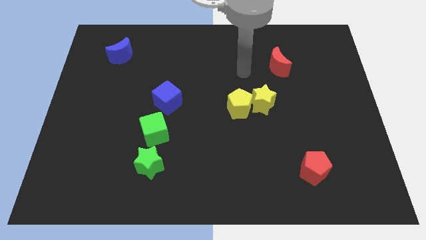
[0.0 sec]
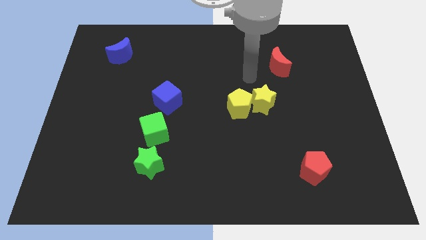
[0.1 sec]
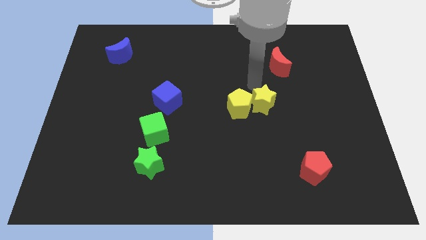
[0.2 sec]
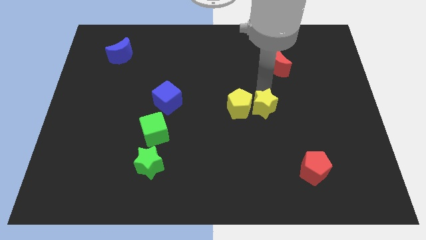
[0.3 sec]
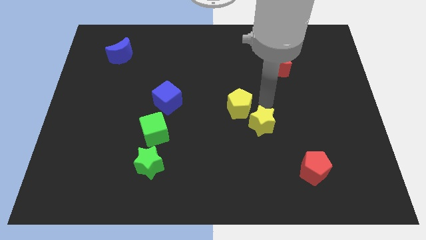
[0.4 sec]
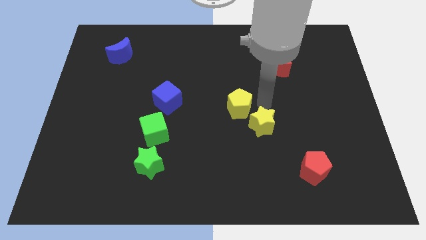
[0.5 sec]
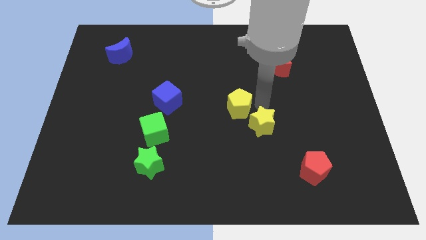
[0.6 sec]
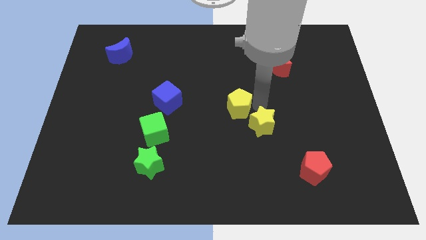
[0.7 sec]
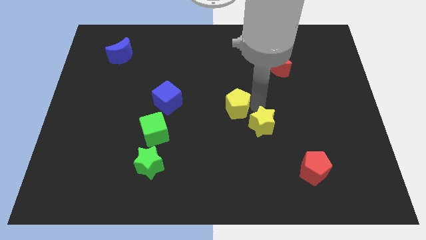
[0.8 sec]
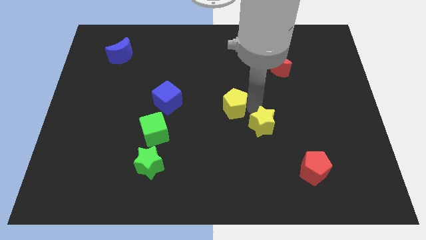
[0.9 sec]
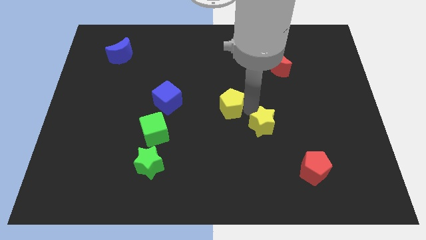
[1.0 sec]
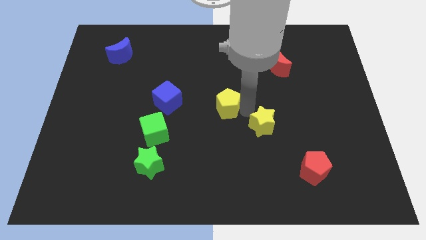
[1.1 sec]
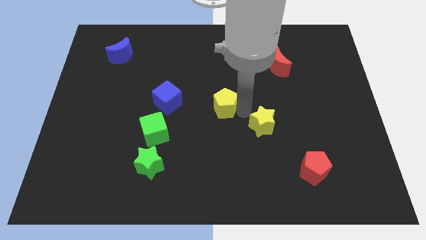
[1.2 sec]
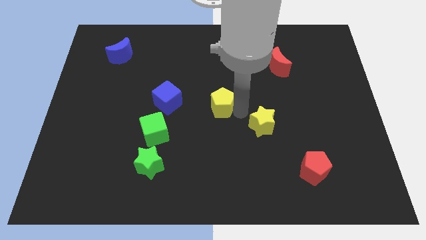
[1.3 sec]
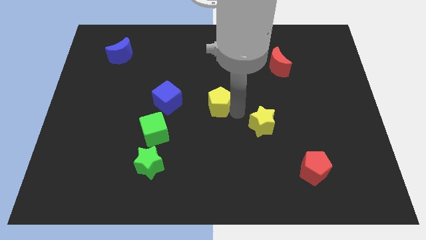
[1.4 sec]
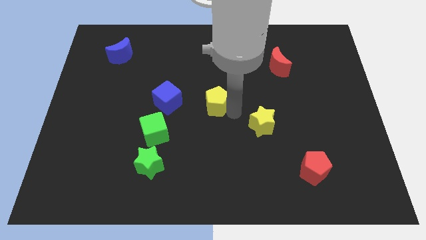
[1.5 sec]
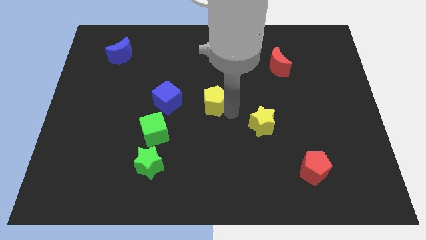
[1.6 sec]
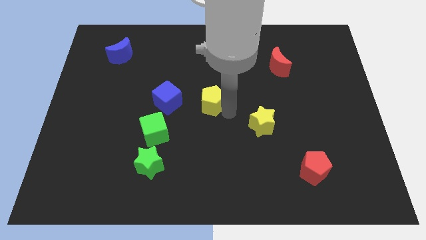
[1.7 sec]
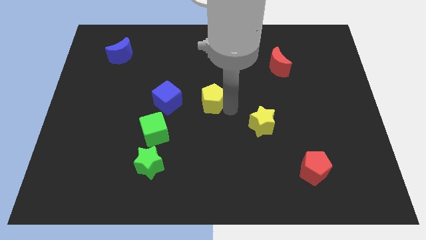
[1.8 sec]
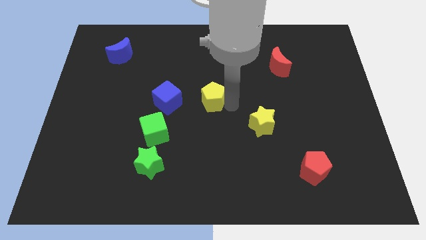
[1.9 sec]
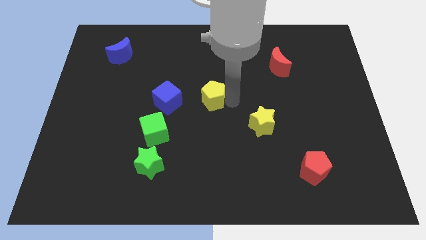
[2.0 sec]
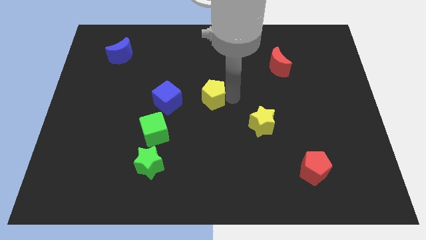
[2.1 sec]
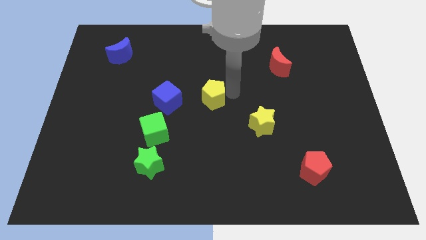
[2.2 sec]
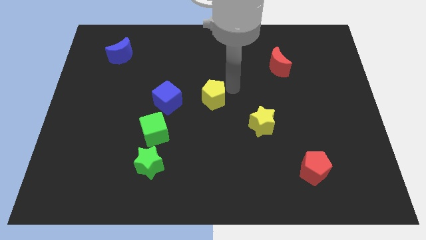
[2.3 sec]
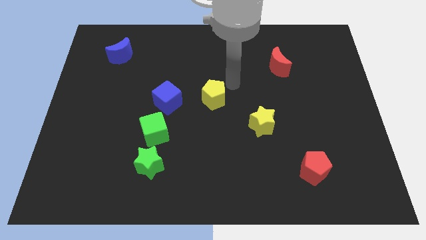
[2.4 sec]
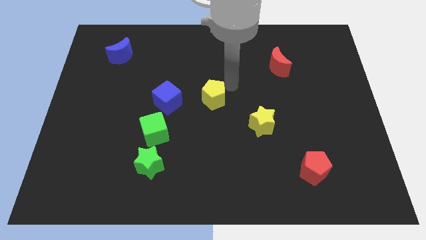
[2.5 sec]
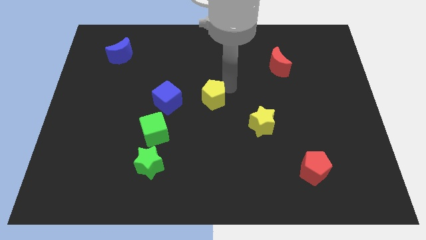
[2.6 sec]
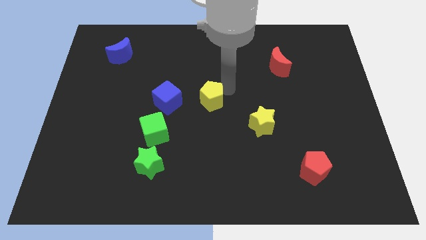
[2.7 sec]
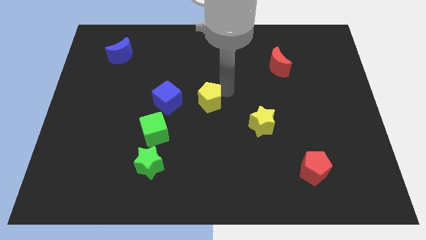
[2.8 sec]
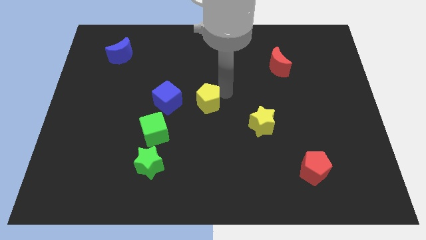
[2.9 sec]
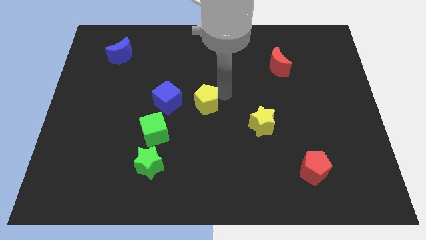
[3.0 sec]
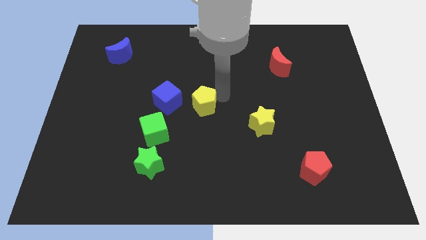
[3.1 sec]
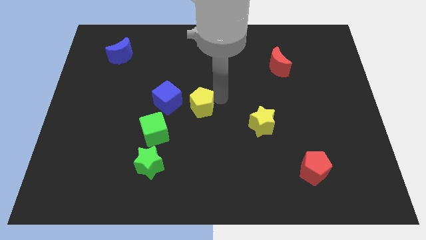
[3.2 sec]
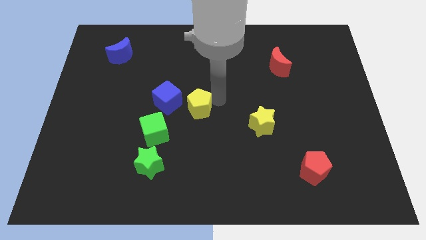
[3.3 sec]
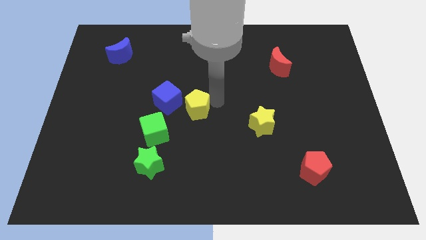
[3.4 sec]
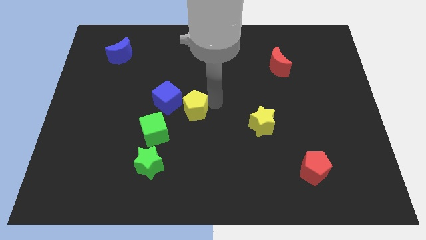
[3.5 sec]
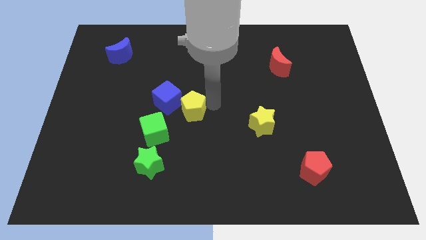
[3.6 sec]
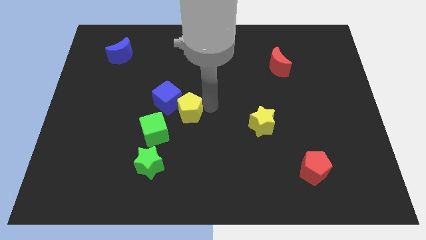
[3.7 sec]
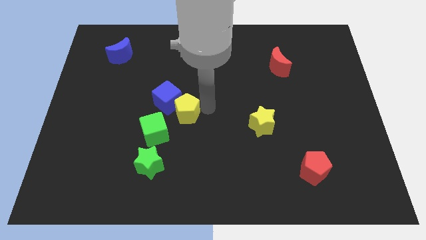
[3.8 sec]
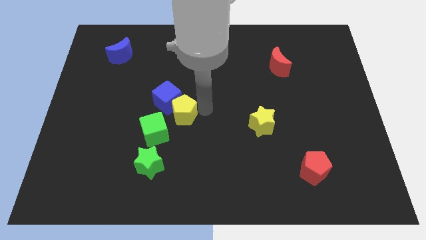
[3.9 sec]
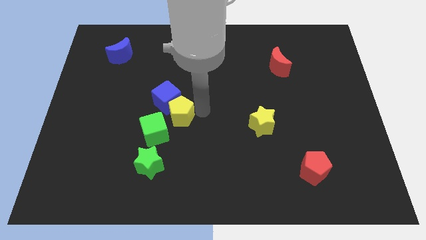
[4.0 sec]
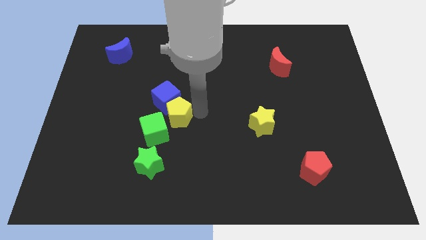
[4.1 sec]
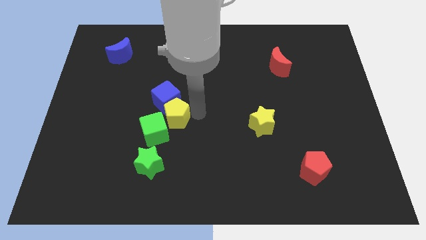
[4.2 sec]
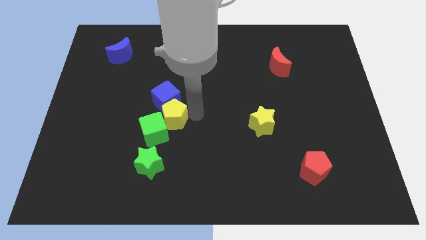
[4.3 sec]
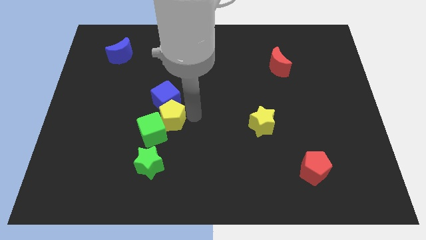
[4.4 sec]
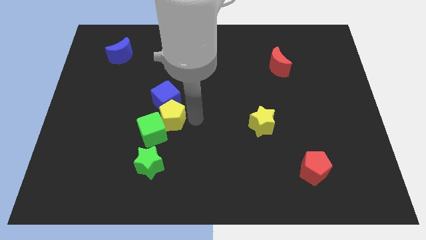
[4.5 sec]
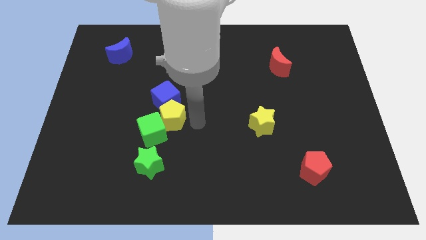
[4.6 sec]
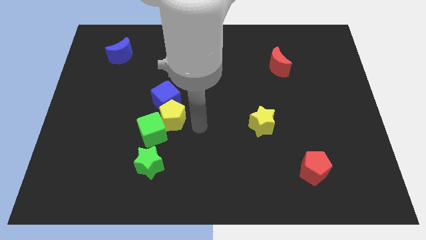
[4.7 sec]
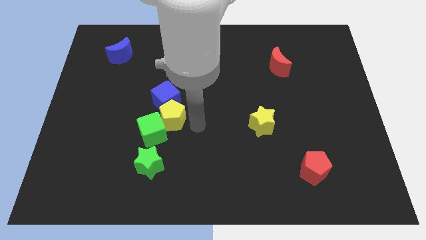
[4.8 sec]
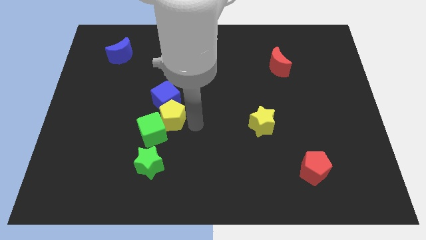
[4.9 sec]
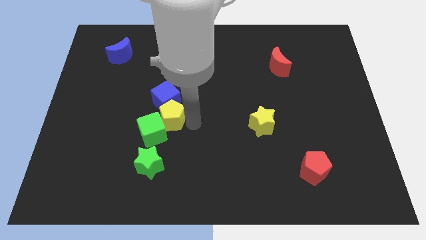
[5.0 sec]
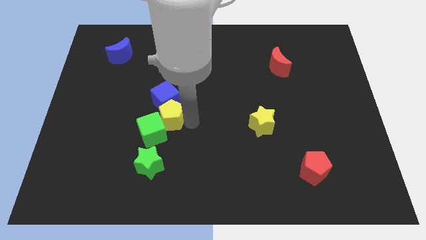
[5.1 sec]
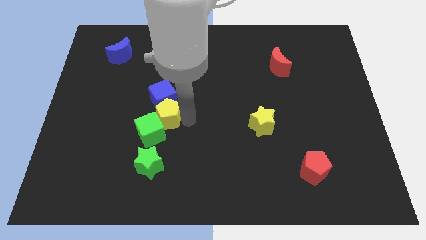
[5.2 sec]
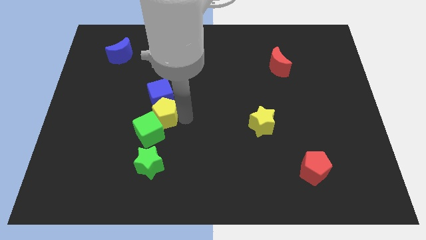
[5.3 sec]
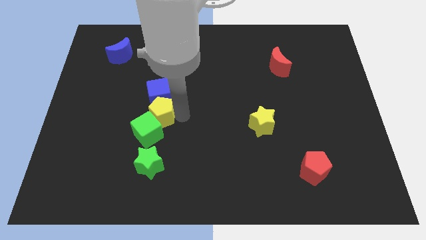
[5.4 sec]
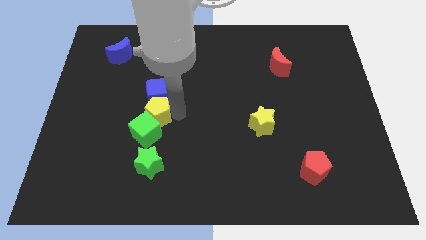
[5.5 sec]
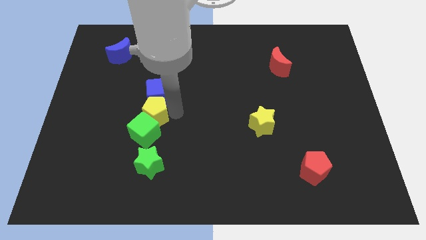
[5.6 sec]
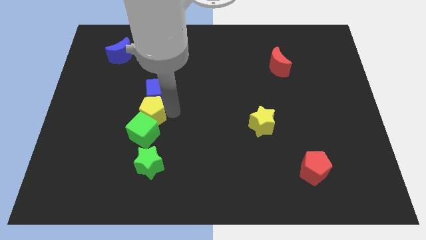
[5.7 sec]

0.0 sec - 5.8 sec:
put the yellow pentagon to the top left of the green cube

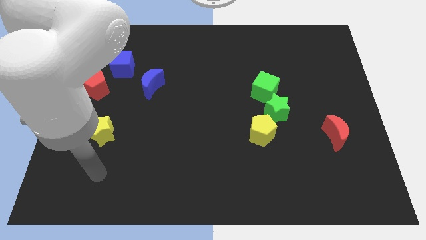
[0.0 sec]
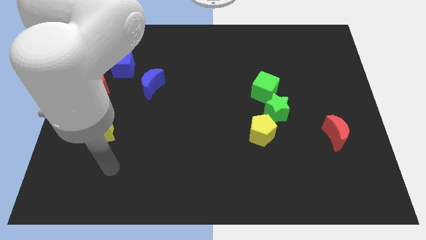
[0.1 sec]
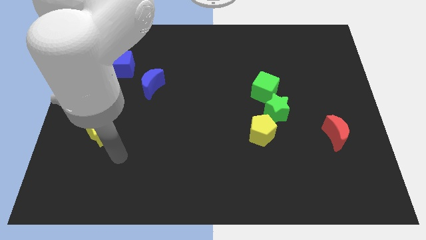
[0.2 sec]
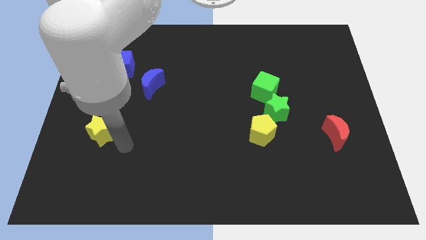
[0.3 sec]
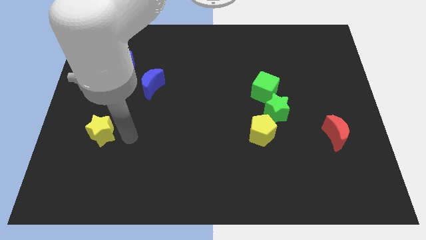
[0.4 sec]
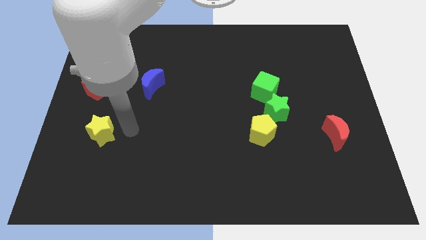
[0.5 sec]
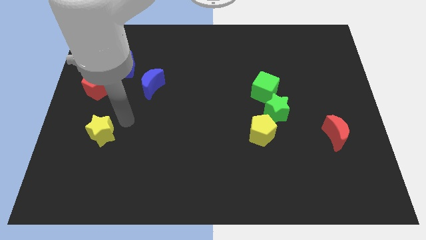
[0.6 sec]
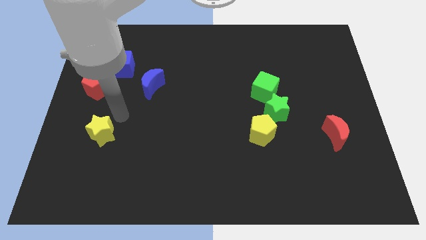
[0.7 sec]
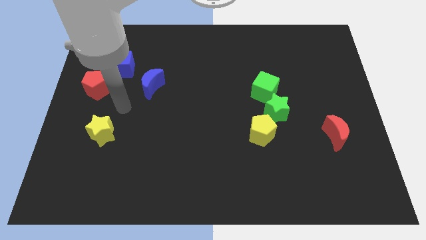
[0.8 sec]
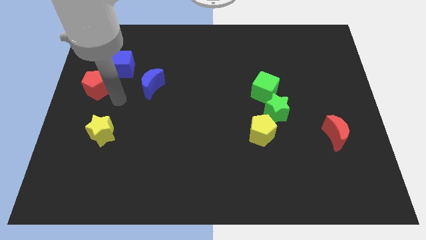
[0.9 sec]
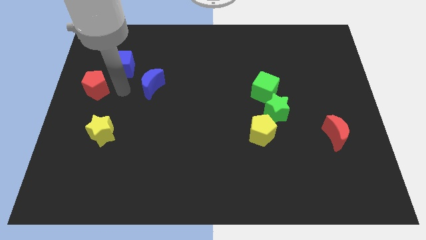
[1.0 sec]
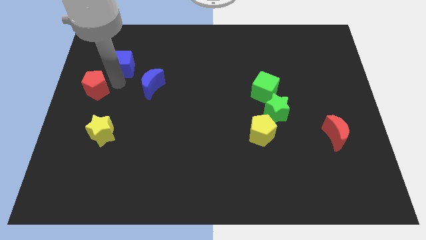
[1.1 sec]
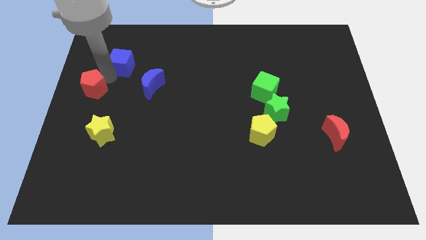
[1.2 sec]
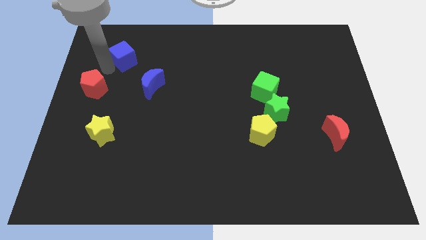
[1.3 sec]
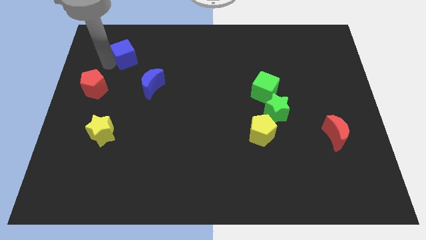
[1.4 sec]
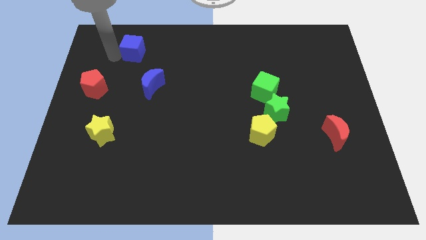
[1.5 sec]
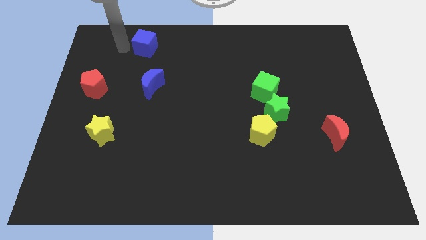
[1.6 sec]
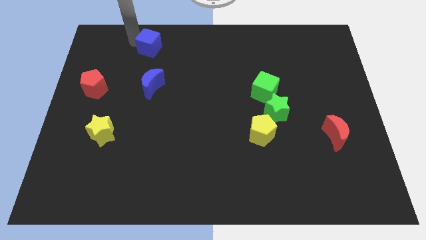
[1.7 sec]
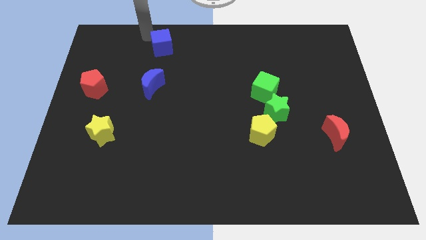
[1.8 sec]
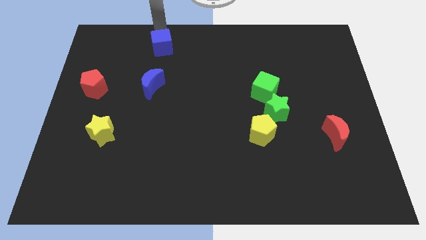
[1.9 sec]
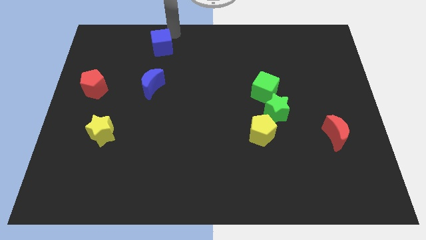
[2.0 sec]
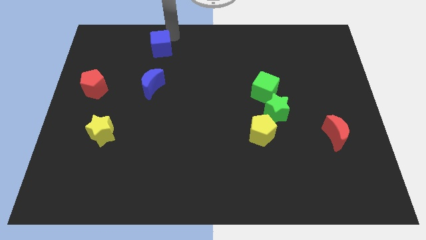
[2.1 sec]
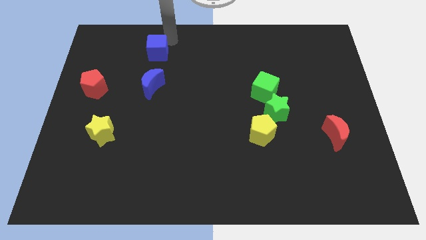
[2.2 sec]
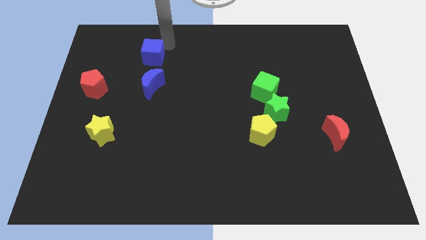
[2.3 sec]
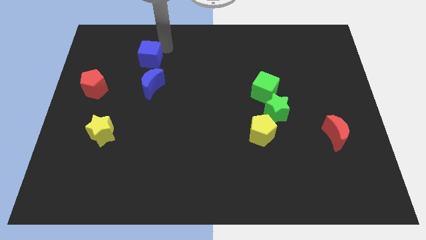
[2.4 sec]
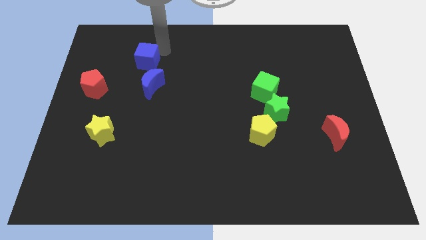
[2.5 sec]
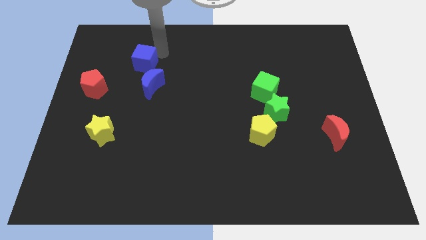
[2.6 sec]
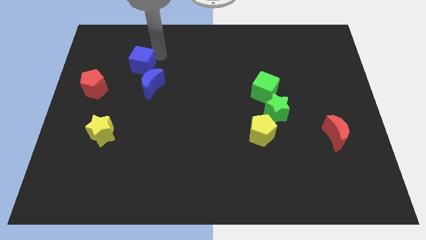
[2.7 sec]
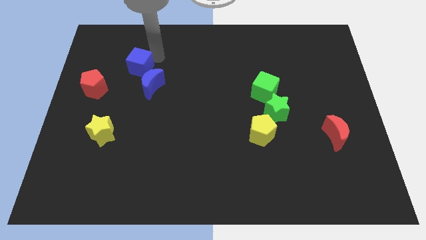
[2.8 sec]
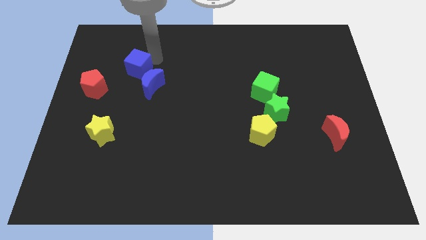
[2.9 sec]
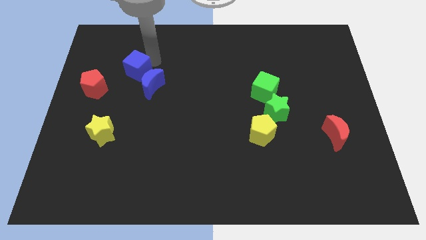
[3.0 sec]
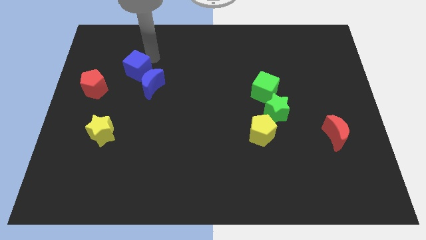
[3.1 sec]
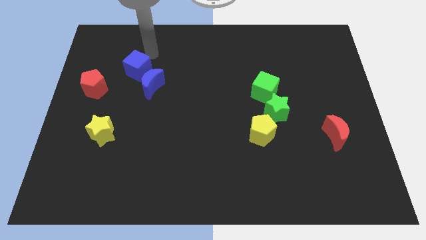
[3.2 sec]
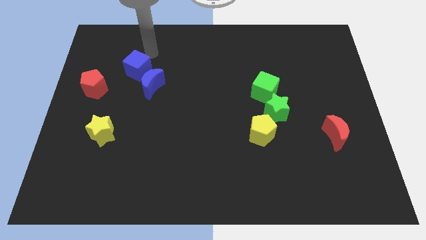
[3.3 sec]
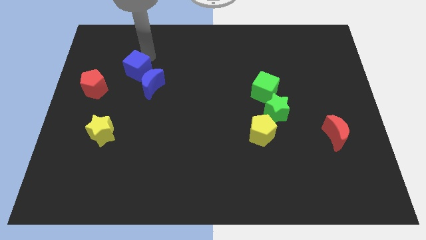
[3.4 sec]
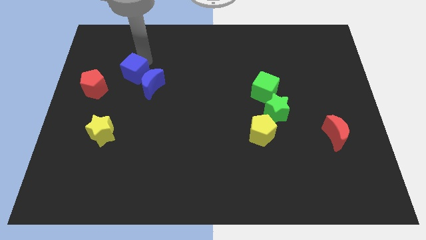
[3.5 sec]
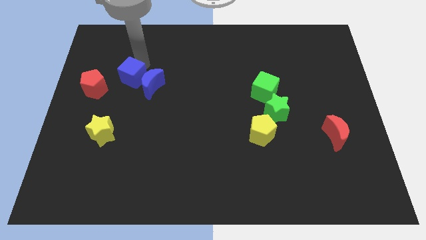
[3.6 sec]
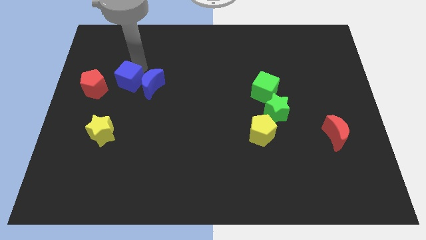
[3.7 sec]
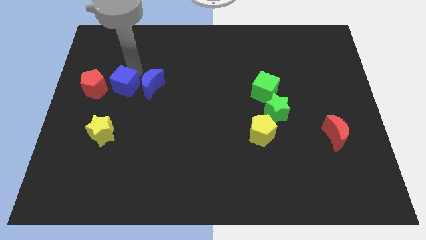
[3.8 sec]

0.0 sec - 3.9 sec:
slide the blue cube to the bottom left of the blue moon
